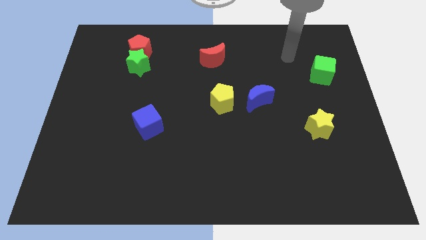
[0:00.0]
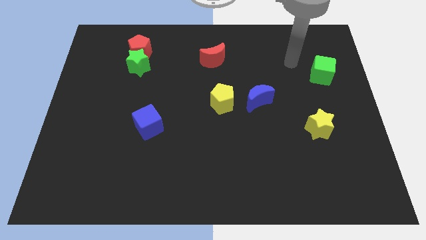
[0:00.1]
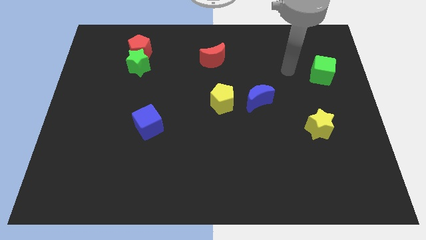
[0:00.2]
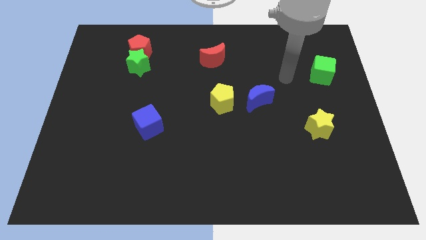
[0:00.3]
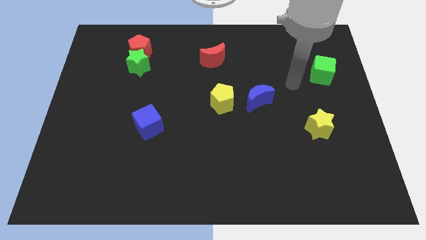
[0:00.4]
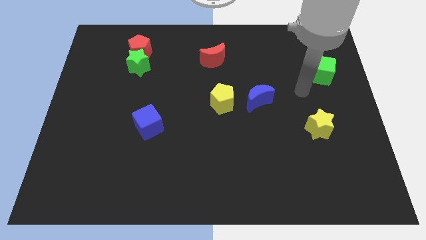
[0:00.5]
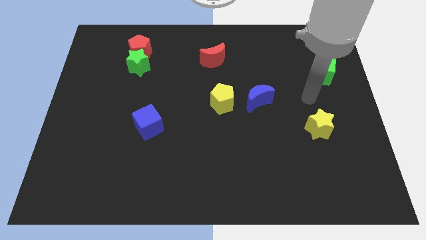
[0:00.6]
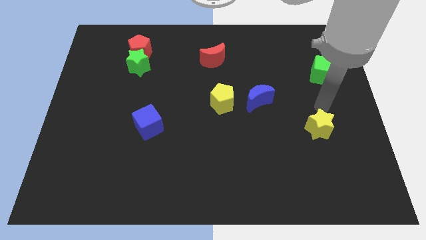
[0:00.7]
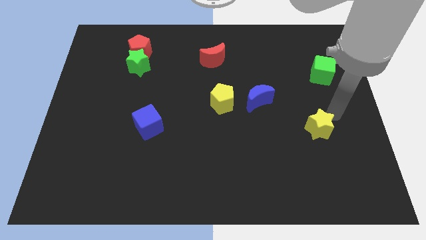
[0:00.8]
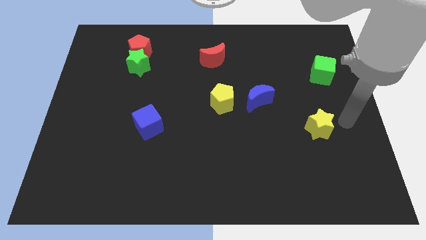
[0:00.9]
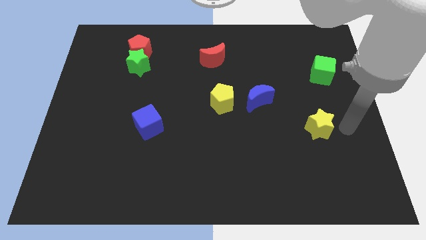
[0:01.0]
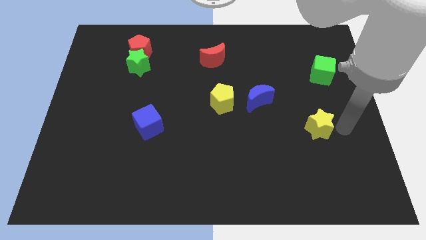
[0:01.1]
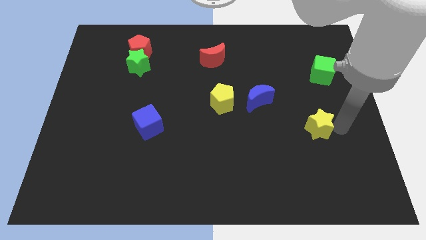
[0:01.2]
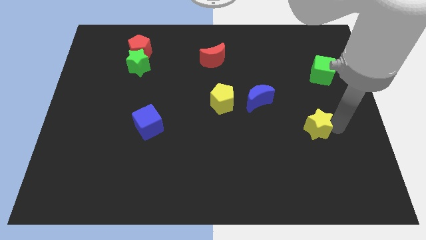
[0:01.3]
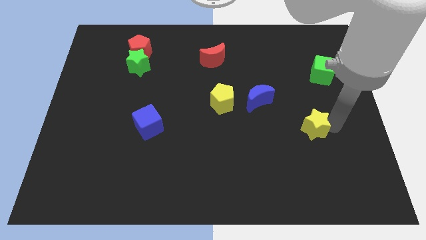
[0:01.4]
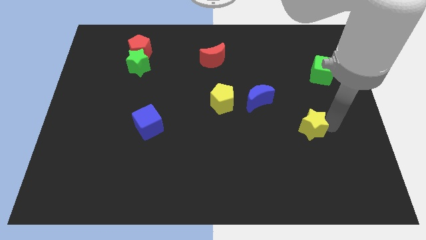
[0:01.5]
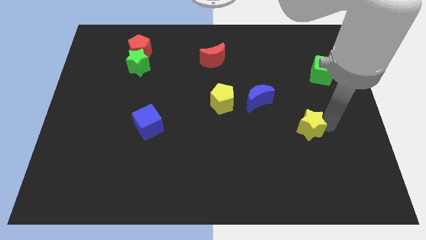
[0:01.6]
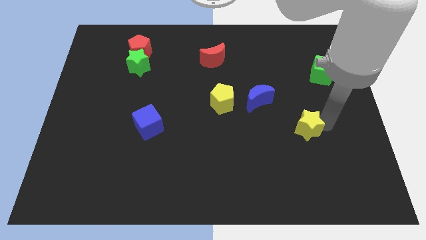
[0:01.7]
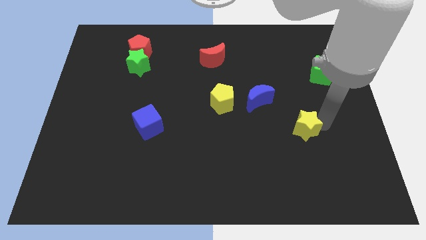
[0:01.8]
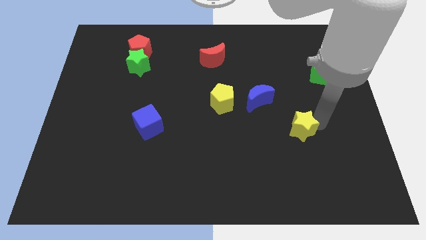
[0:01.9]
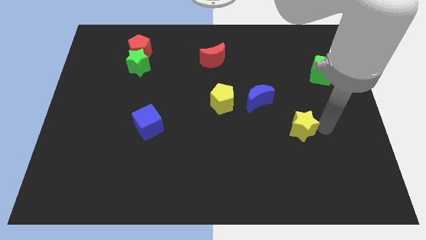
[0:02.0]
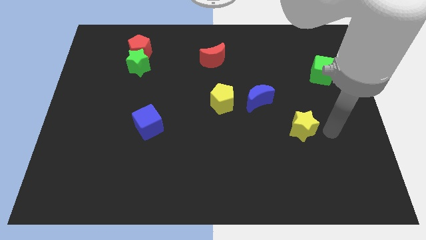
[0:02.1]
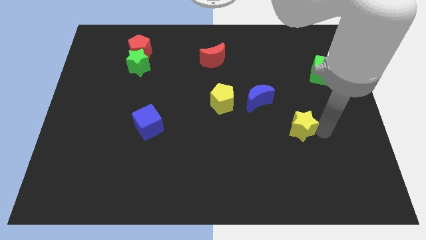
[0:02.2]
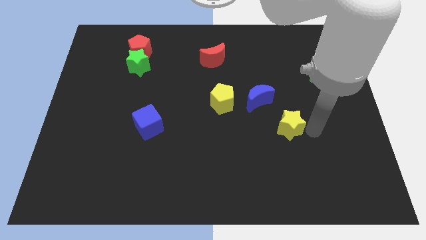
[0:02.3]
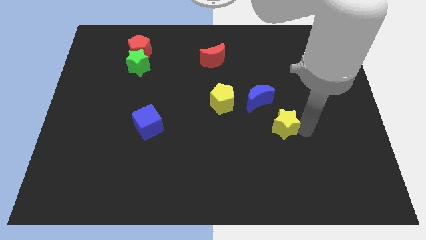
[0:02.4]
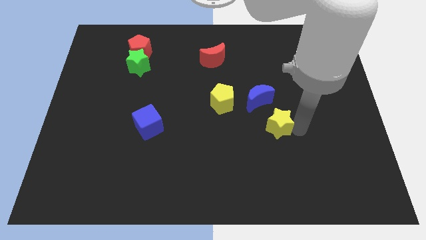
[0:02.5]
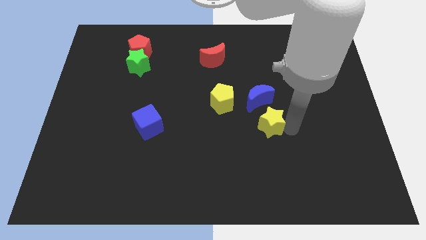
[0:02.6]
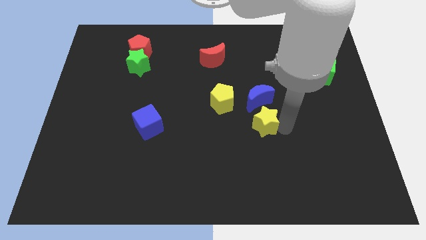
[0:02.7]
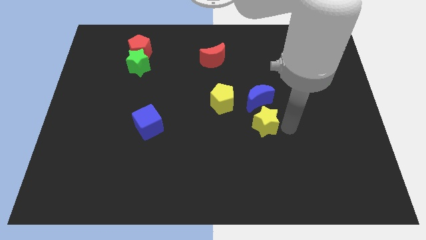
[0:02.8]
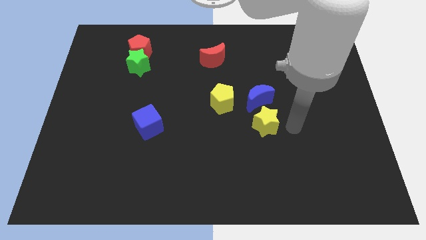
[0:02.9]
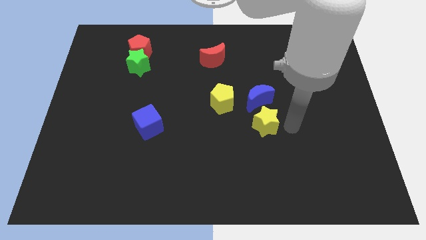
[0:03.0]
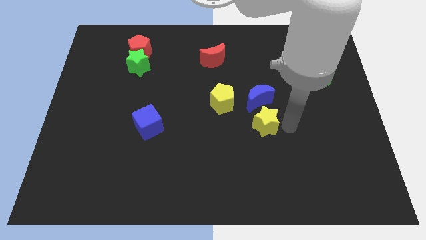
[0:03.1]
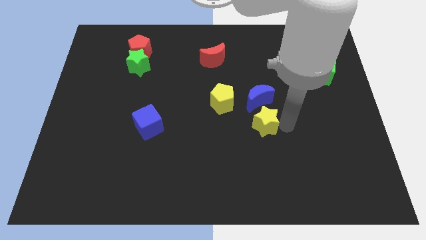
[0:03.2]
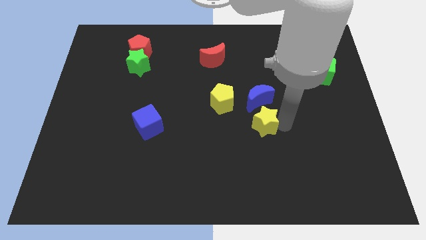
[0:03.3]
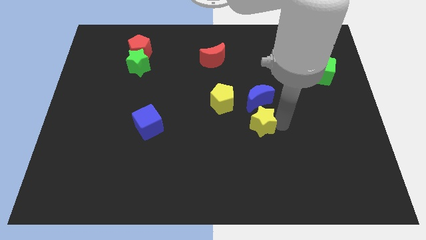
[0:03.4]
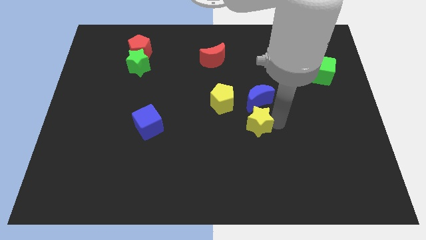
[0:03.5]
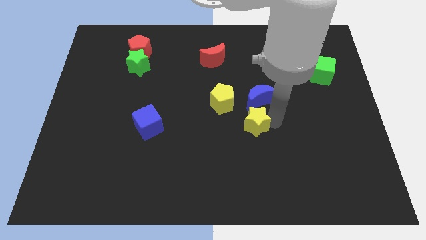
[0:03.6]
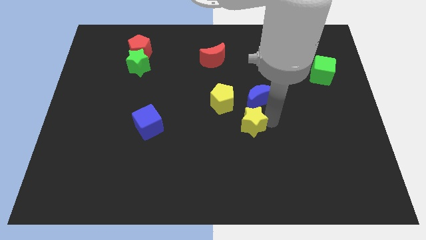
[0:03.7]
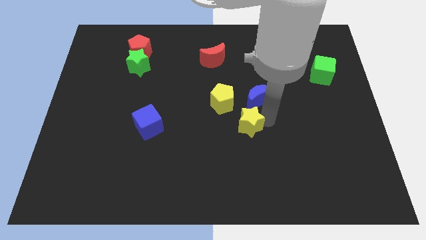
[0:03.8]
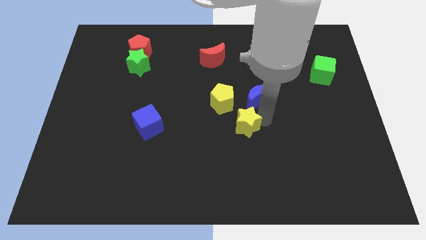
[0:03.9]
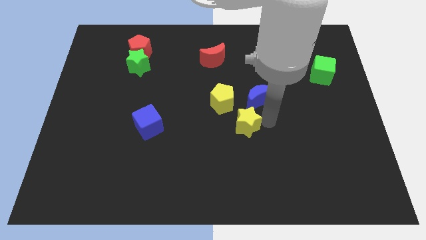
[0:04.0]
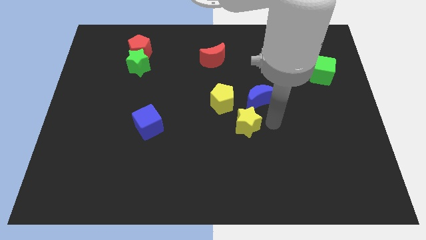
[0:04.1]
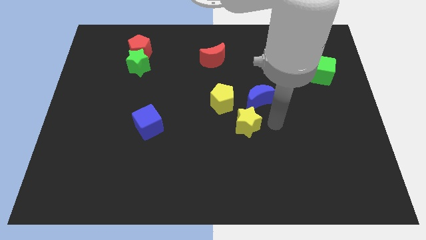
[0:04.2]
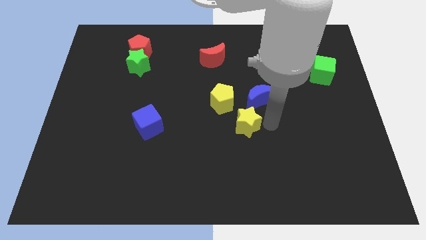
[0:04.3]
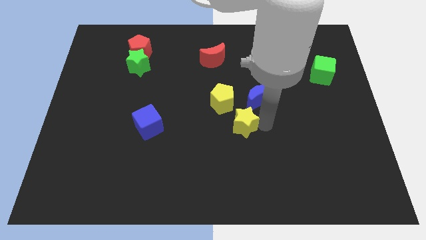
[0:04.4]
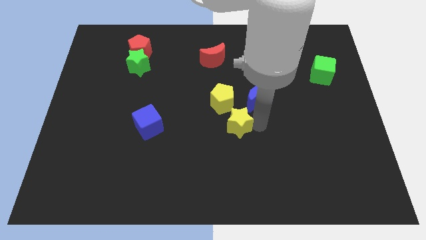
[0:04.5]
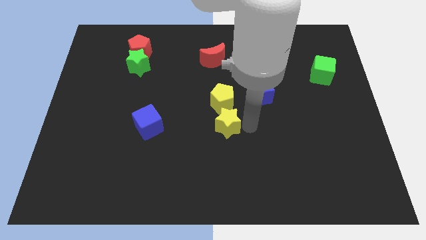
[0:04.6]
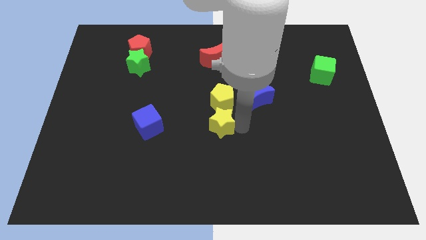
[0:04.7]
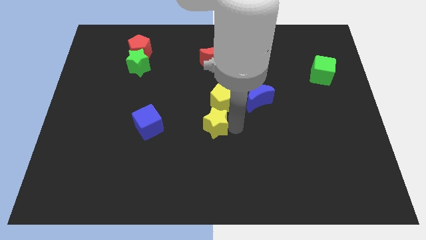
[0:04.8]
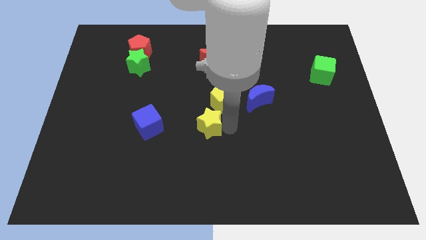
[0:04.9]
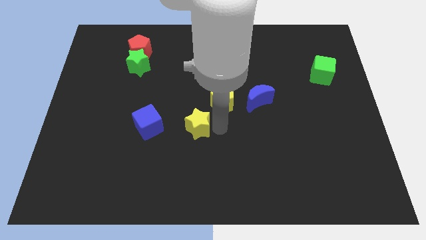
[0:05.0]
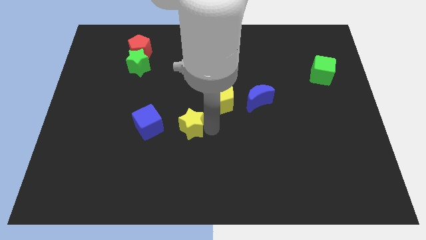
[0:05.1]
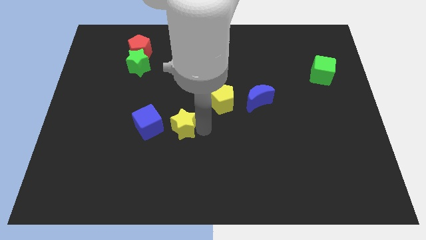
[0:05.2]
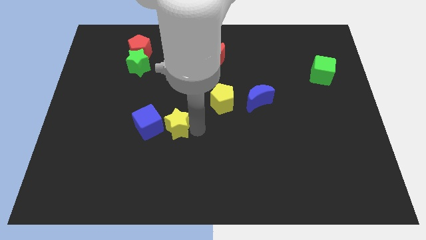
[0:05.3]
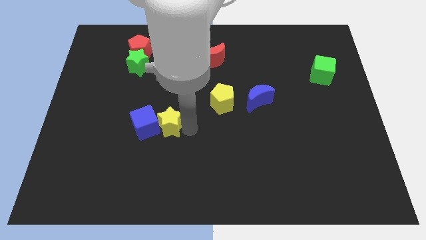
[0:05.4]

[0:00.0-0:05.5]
move the yellow star close to the blue cube
